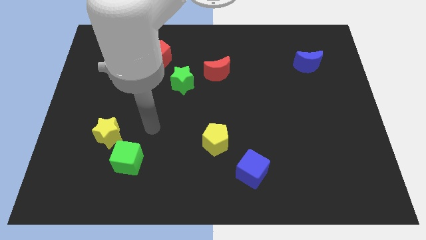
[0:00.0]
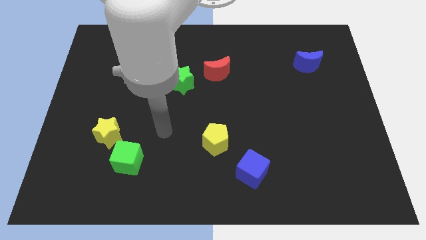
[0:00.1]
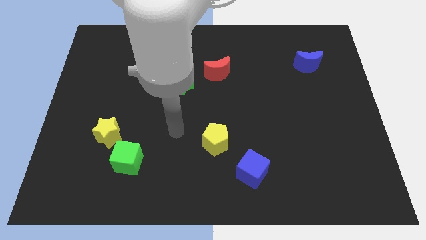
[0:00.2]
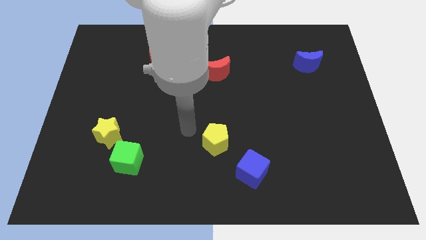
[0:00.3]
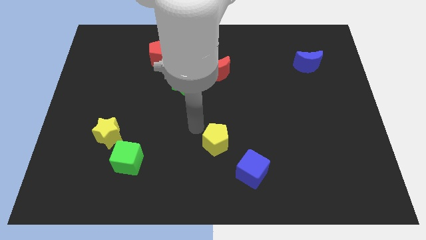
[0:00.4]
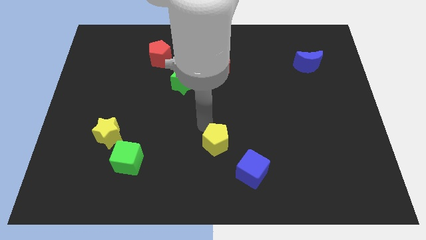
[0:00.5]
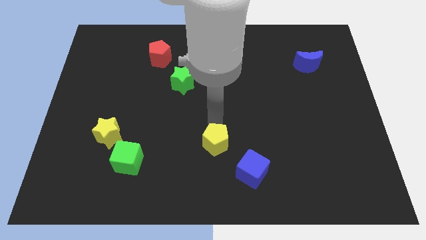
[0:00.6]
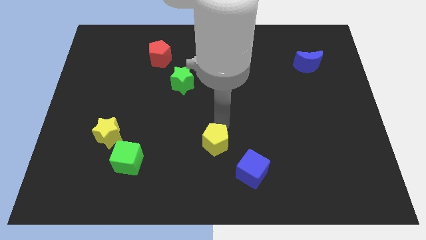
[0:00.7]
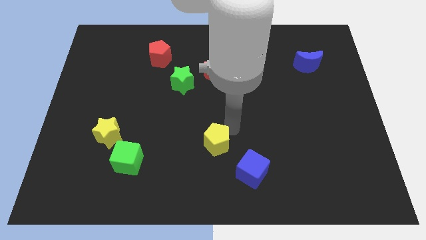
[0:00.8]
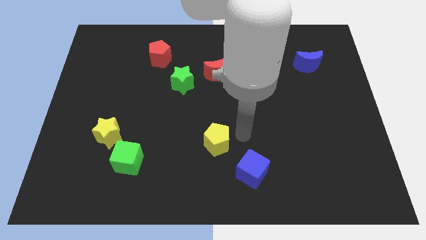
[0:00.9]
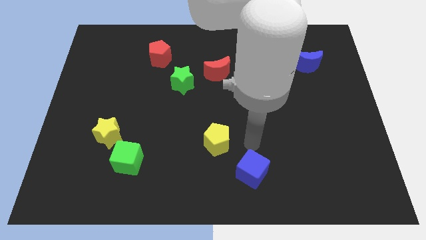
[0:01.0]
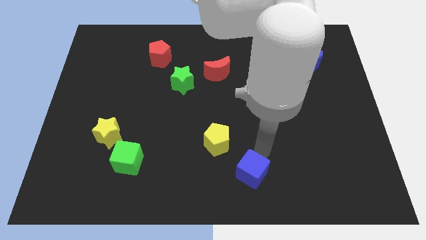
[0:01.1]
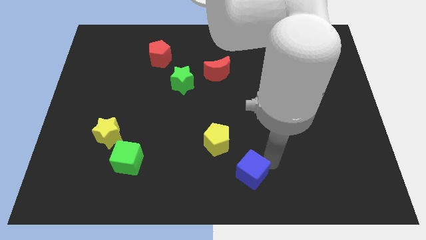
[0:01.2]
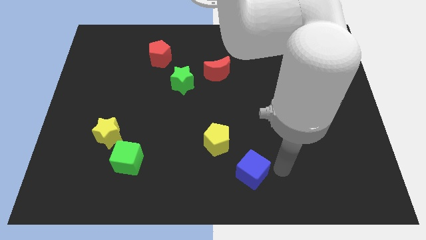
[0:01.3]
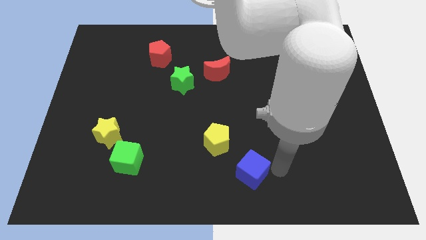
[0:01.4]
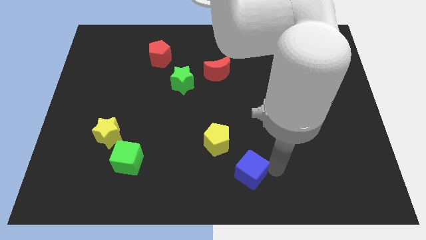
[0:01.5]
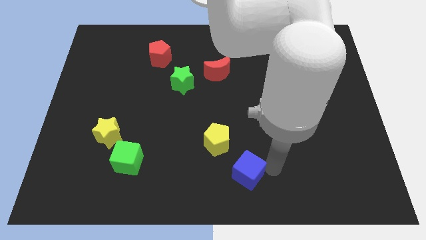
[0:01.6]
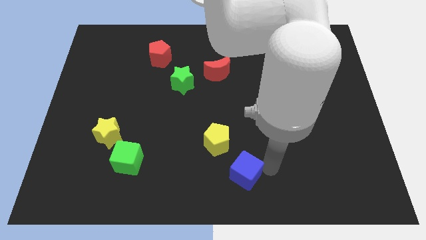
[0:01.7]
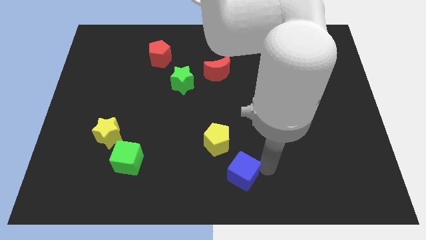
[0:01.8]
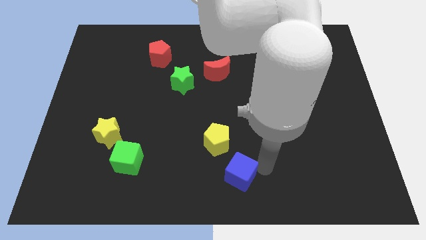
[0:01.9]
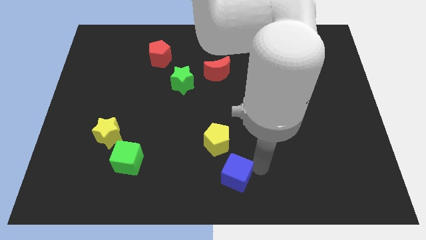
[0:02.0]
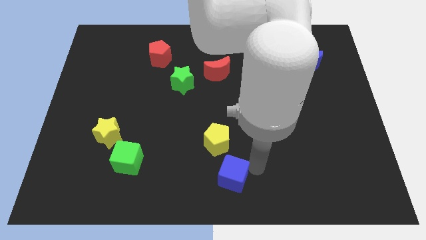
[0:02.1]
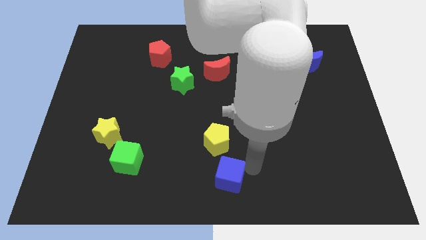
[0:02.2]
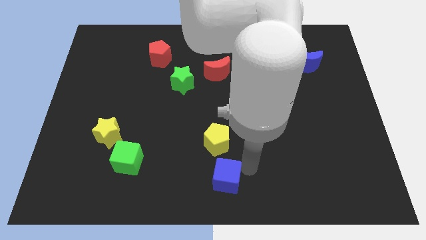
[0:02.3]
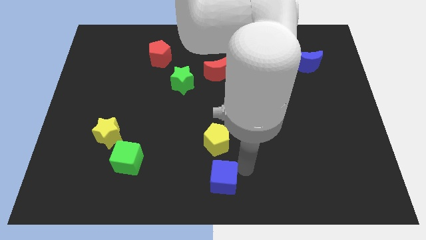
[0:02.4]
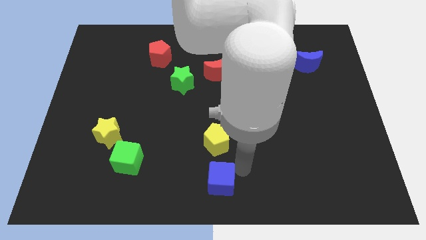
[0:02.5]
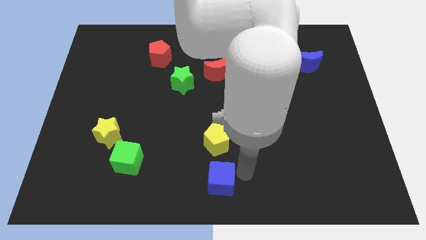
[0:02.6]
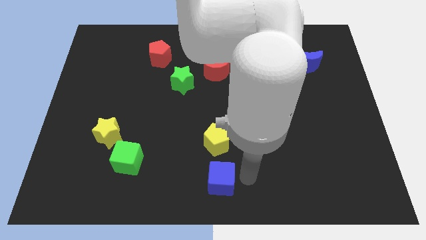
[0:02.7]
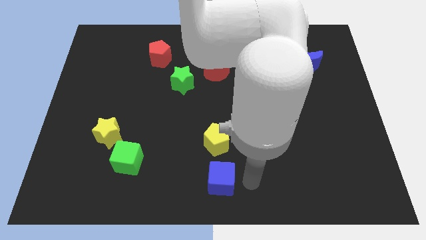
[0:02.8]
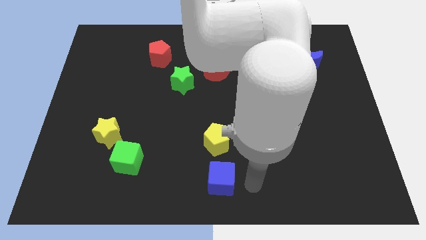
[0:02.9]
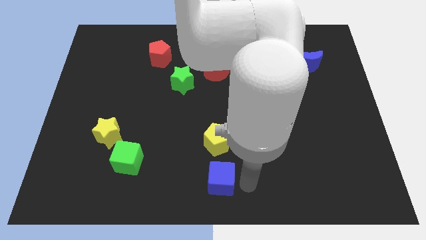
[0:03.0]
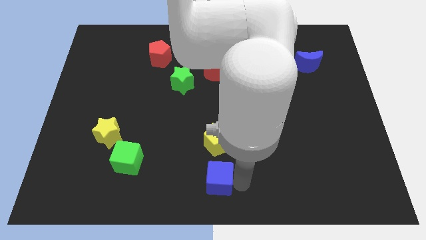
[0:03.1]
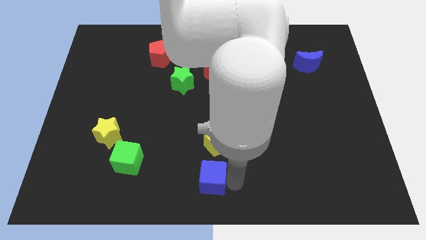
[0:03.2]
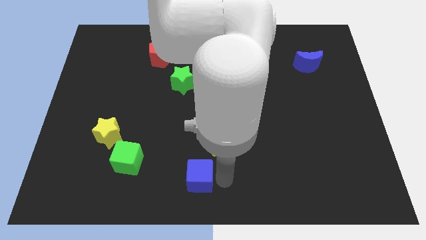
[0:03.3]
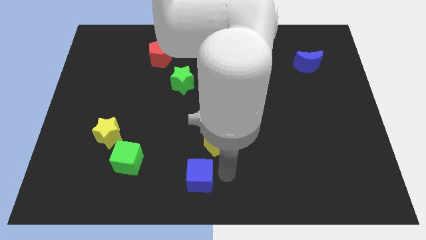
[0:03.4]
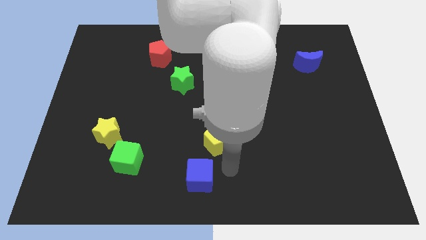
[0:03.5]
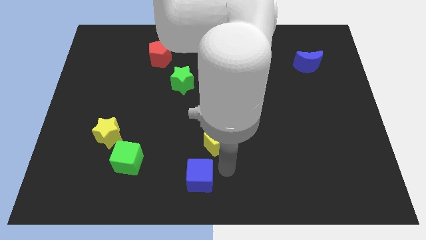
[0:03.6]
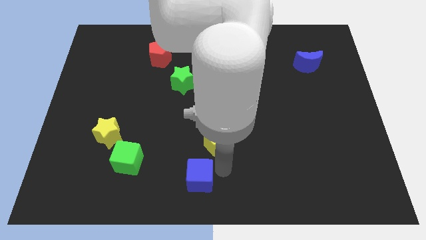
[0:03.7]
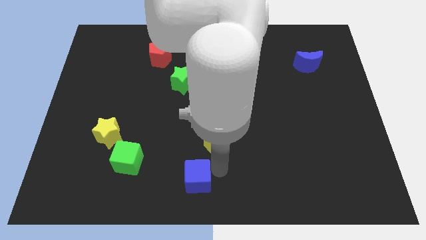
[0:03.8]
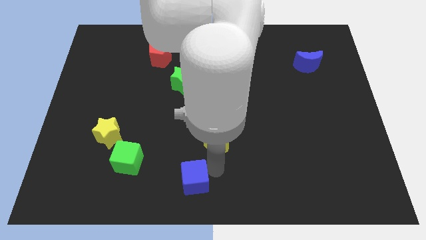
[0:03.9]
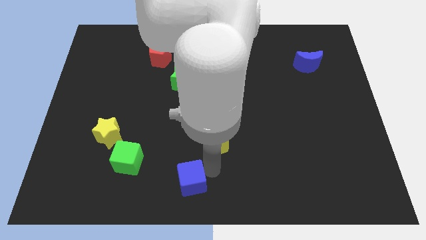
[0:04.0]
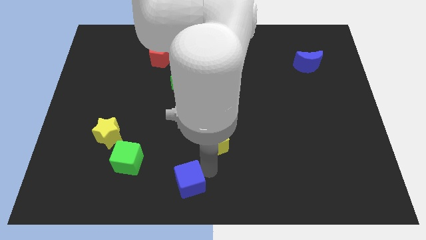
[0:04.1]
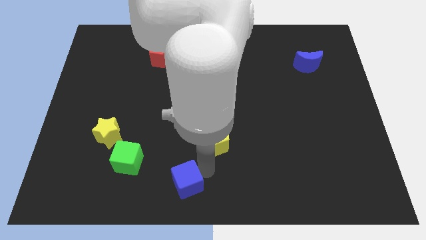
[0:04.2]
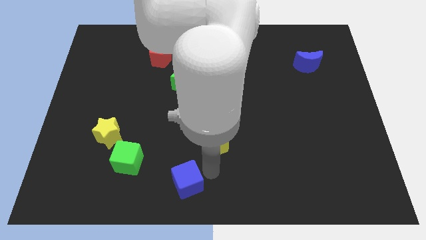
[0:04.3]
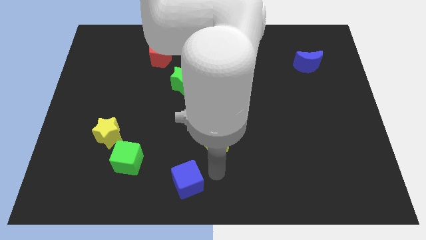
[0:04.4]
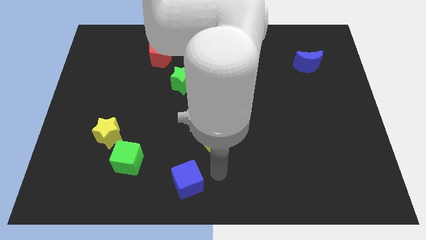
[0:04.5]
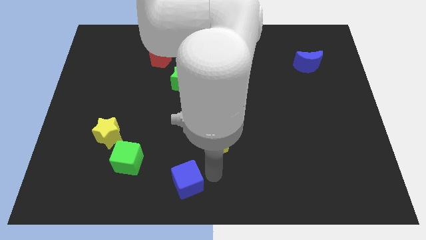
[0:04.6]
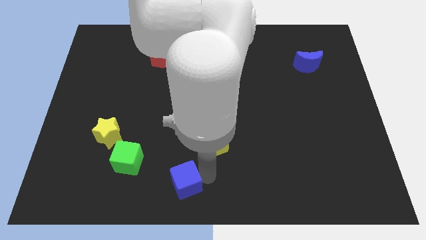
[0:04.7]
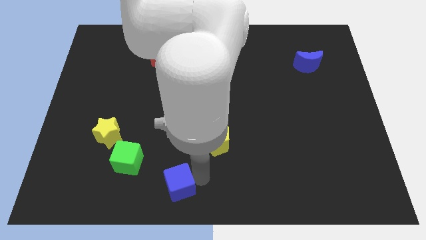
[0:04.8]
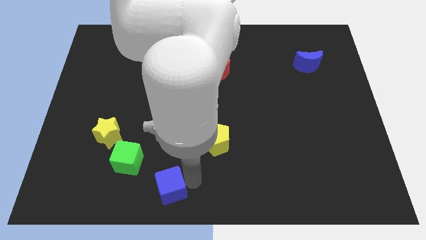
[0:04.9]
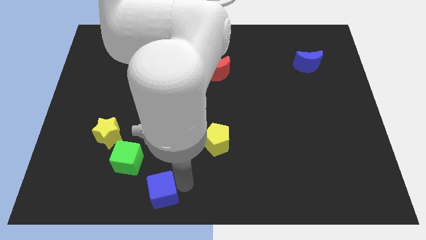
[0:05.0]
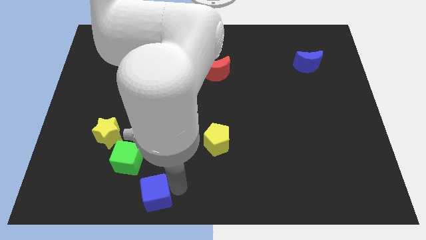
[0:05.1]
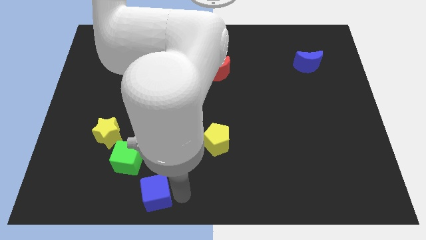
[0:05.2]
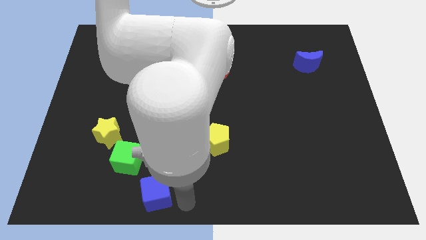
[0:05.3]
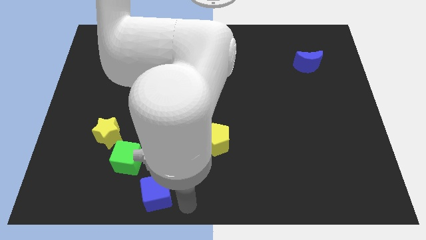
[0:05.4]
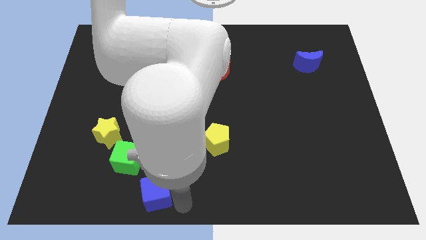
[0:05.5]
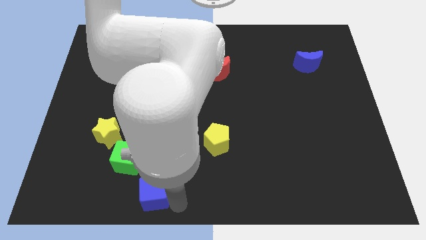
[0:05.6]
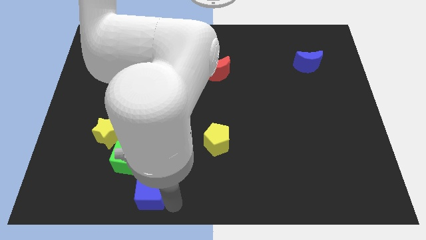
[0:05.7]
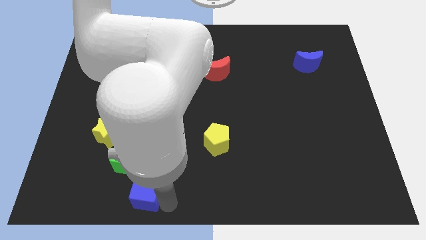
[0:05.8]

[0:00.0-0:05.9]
move the blue cube left

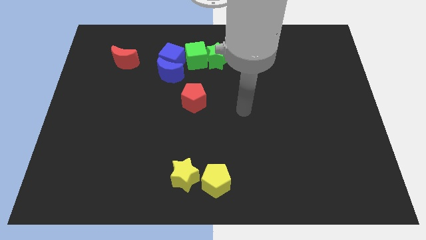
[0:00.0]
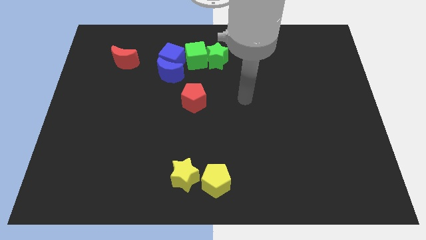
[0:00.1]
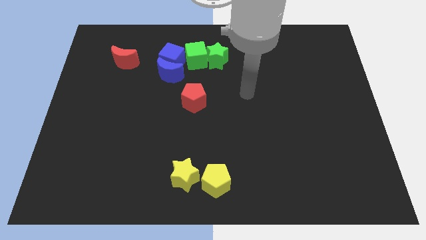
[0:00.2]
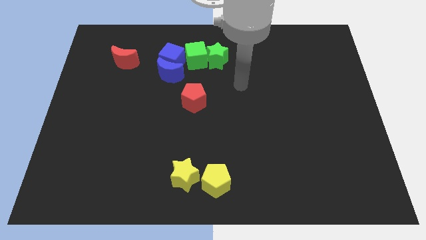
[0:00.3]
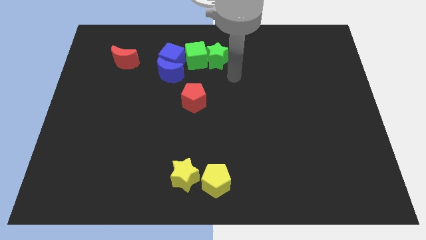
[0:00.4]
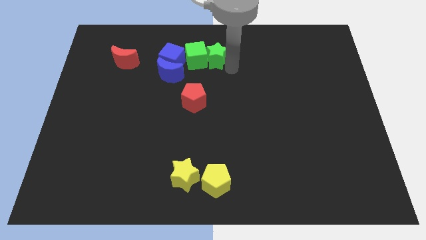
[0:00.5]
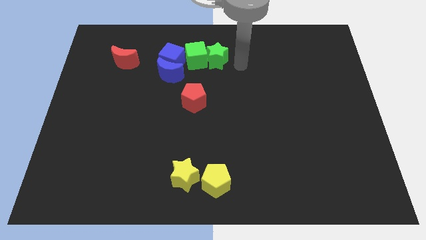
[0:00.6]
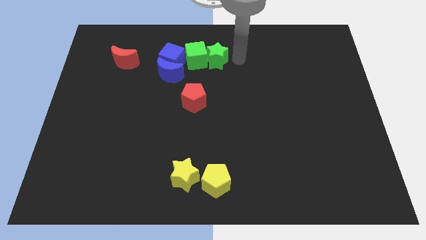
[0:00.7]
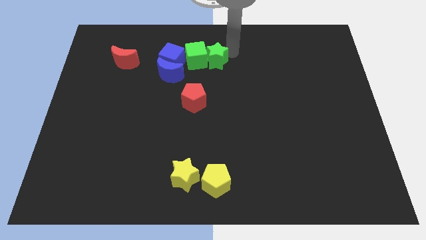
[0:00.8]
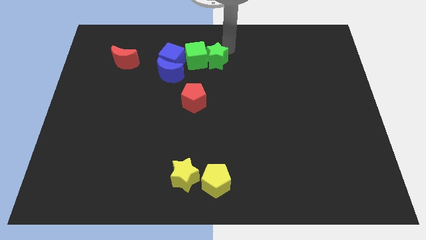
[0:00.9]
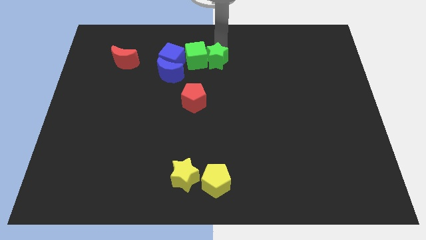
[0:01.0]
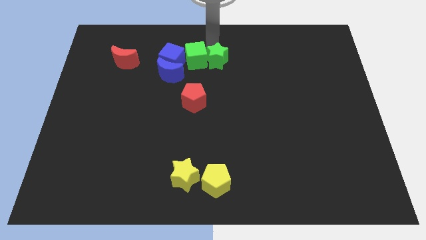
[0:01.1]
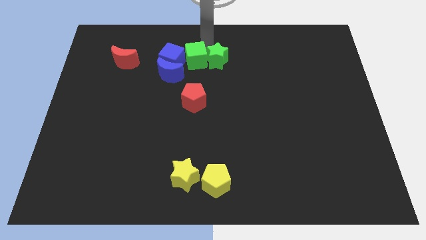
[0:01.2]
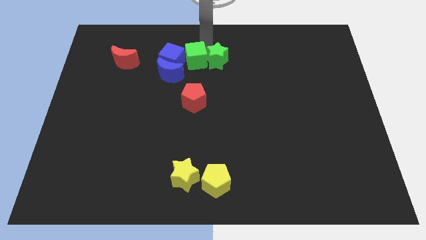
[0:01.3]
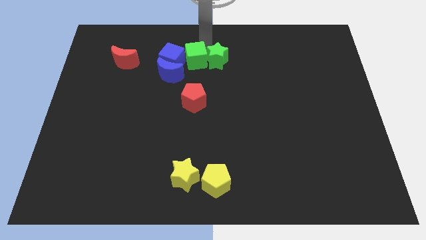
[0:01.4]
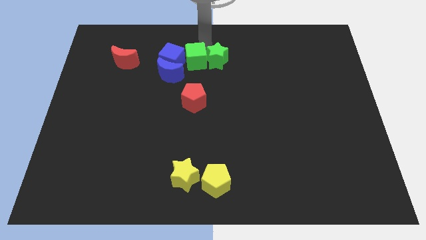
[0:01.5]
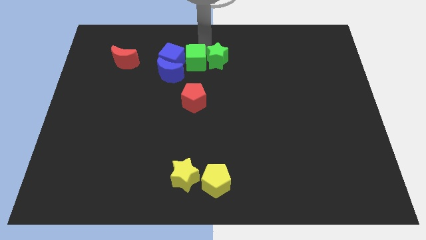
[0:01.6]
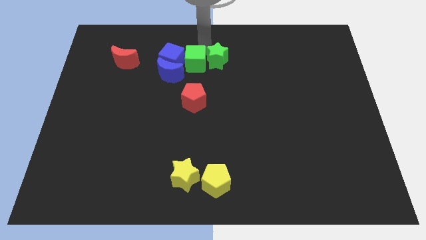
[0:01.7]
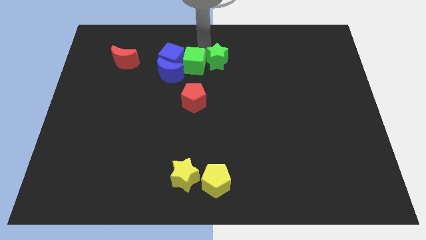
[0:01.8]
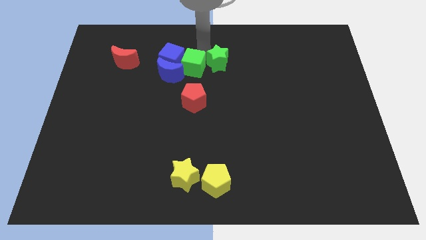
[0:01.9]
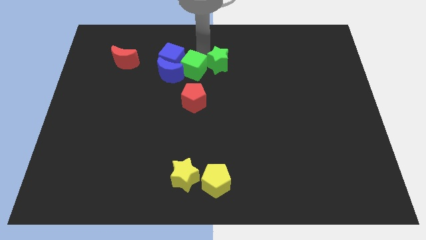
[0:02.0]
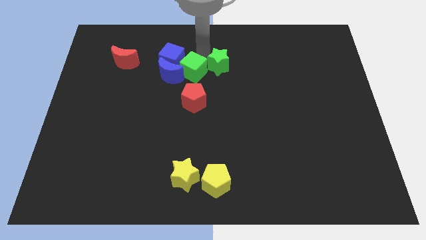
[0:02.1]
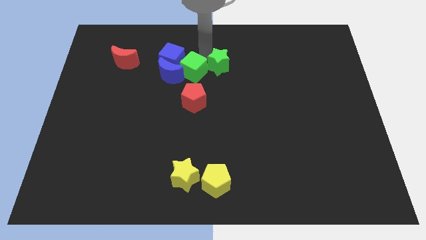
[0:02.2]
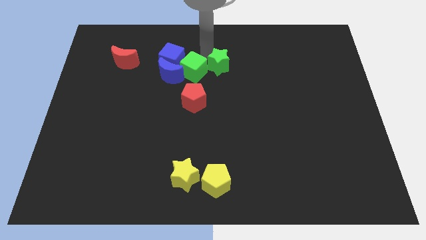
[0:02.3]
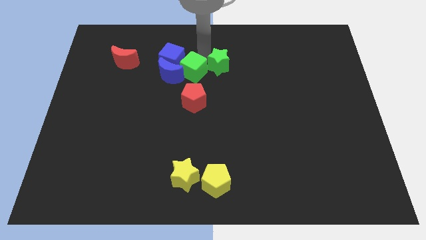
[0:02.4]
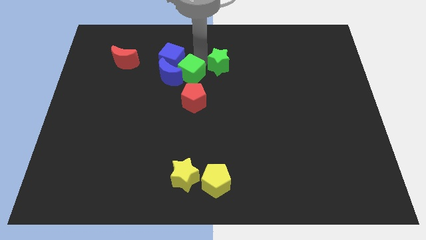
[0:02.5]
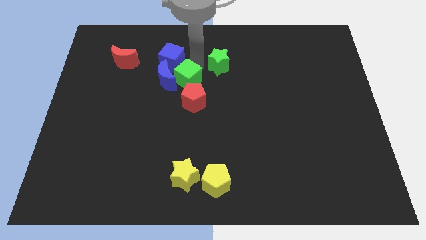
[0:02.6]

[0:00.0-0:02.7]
slightly slide the green cube downwards
